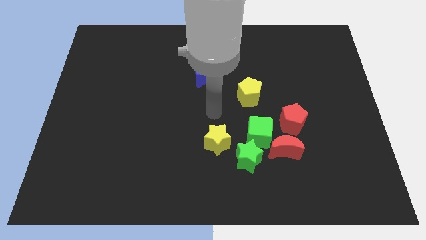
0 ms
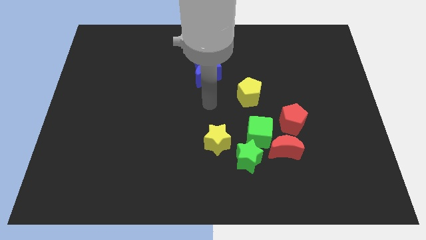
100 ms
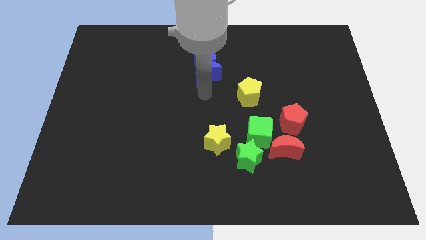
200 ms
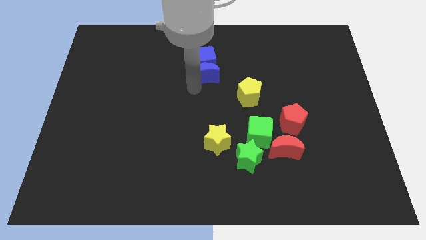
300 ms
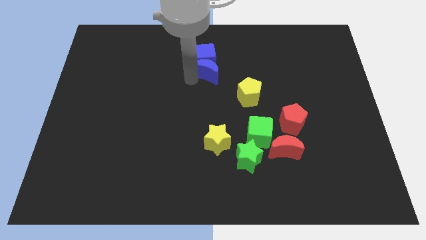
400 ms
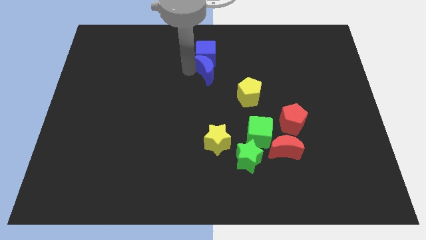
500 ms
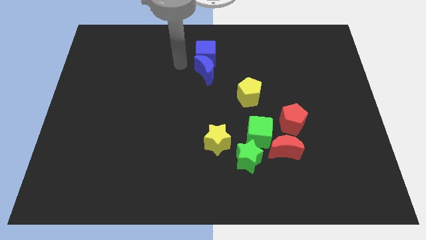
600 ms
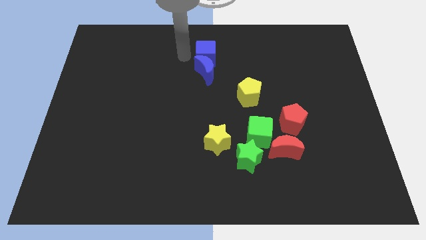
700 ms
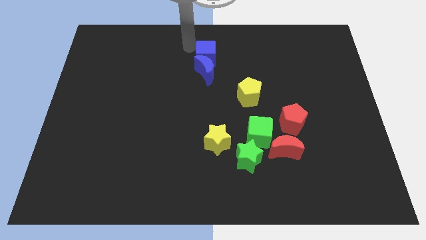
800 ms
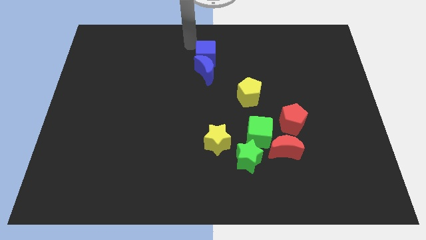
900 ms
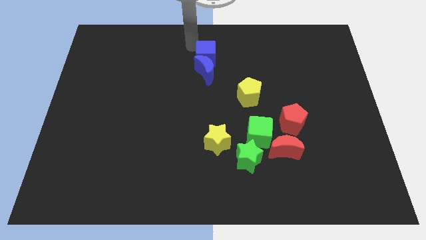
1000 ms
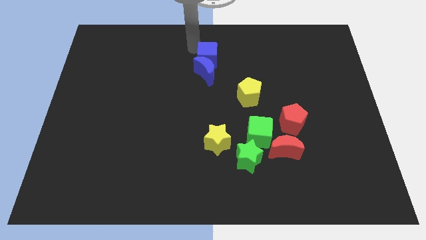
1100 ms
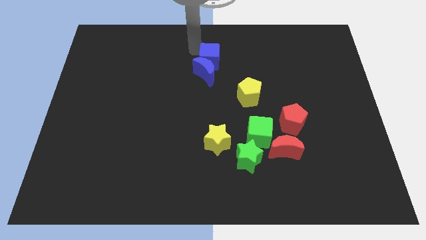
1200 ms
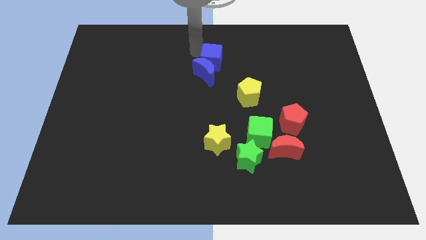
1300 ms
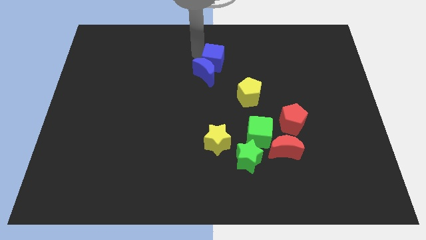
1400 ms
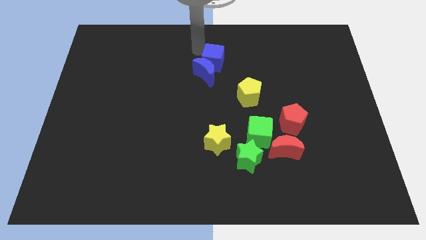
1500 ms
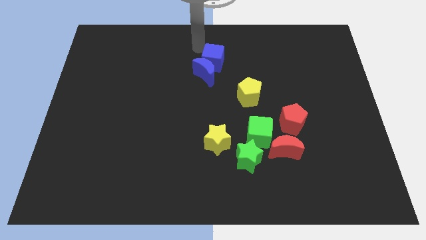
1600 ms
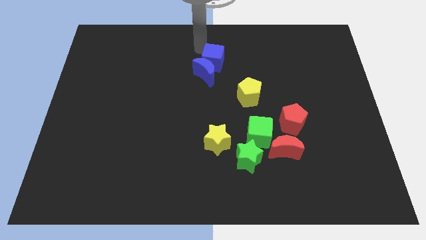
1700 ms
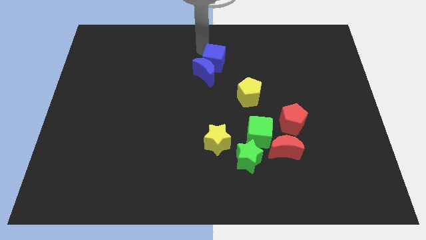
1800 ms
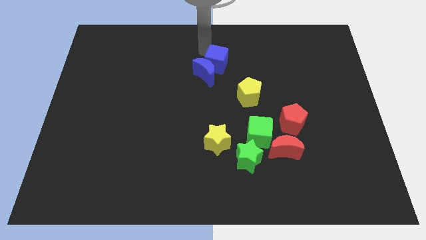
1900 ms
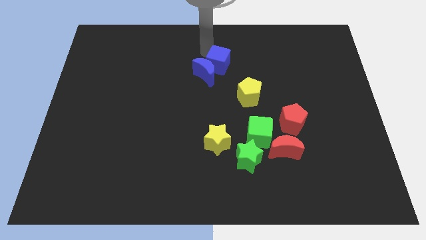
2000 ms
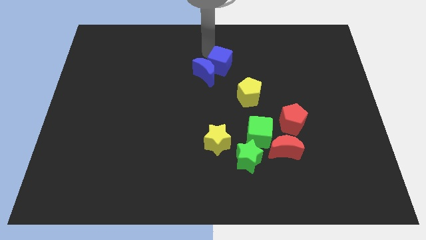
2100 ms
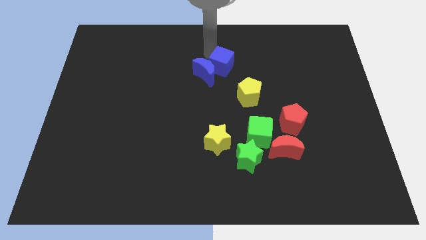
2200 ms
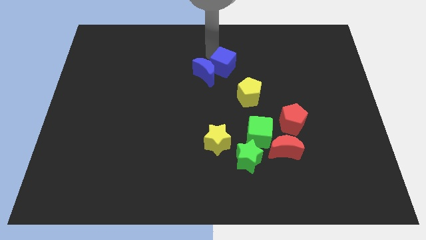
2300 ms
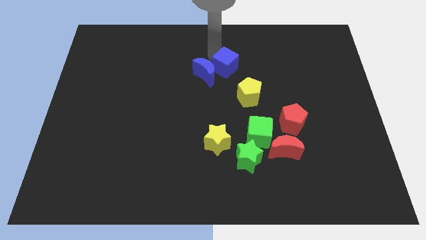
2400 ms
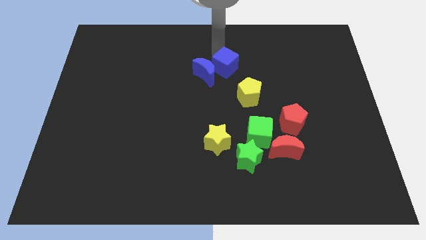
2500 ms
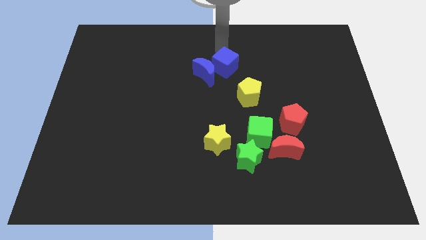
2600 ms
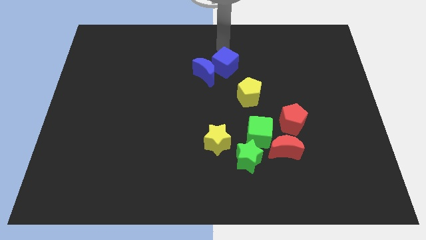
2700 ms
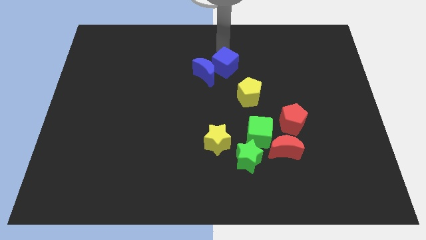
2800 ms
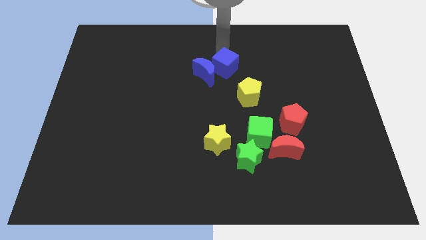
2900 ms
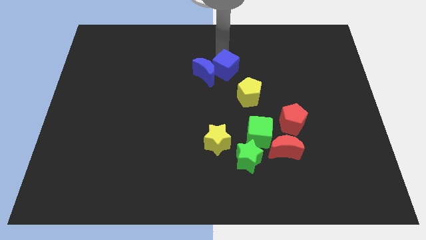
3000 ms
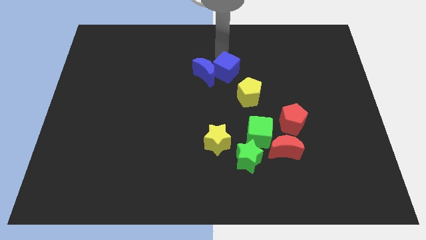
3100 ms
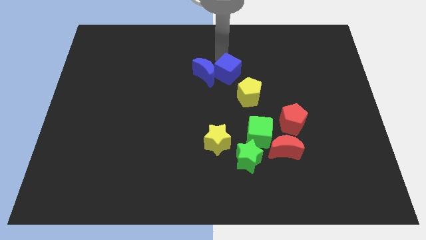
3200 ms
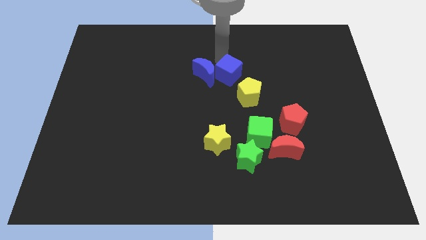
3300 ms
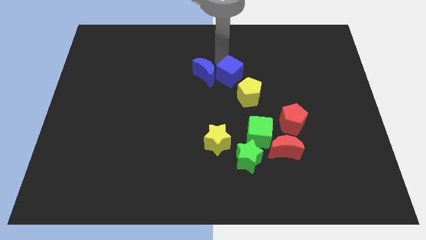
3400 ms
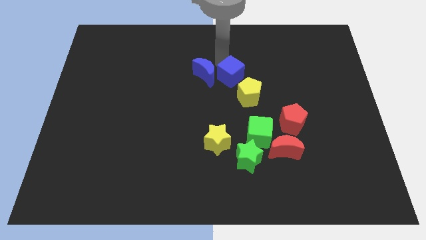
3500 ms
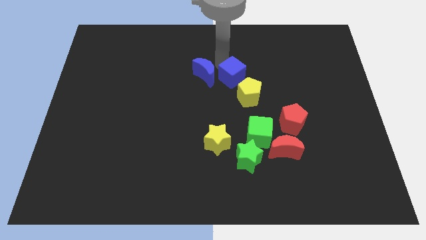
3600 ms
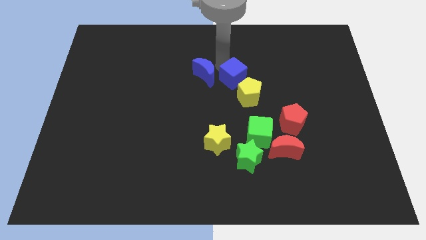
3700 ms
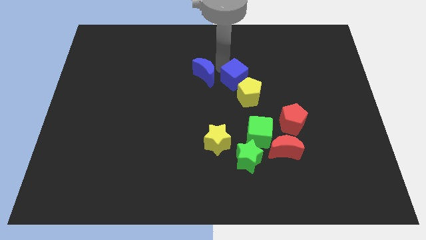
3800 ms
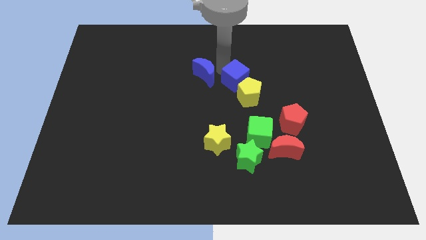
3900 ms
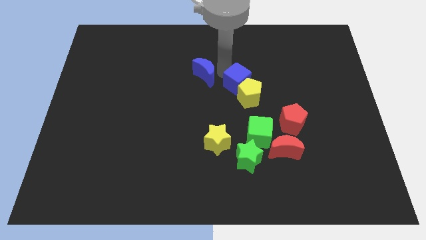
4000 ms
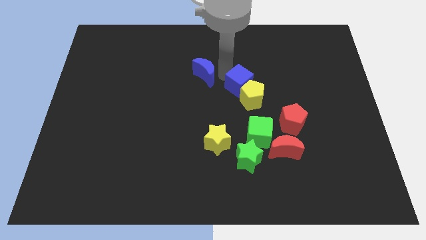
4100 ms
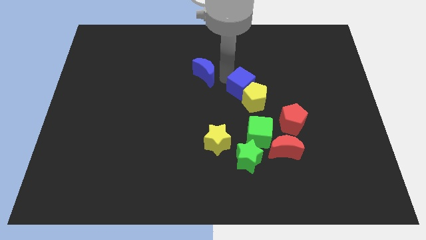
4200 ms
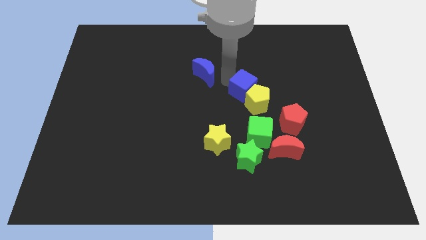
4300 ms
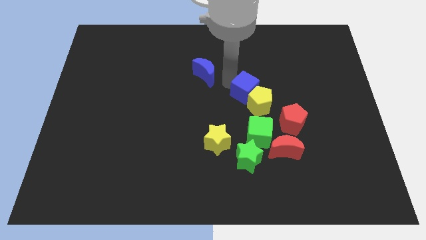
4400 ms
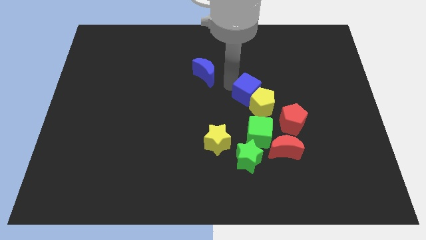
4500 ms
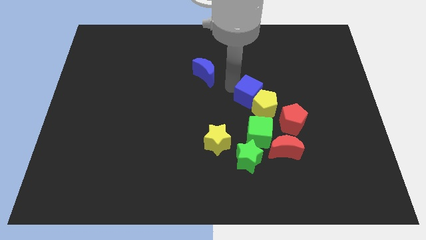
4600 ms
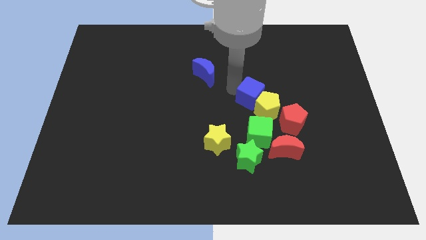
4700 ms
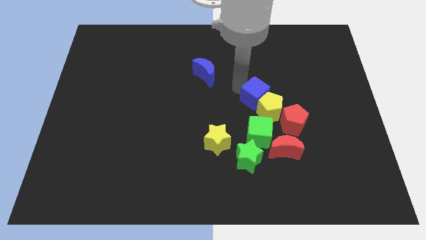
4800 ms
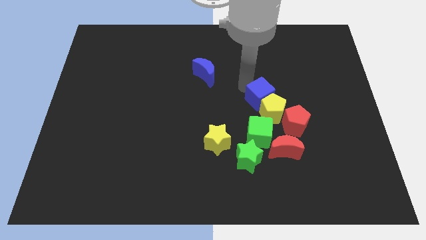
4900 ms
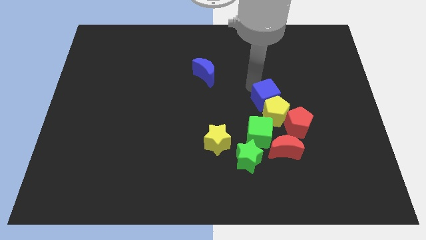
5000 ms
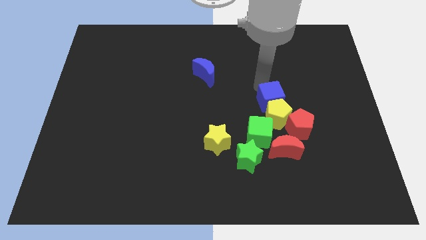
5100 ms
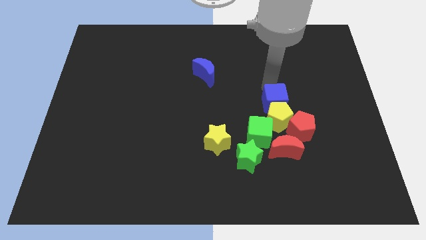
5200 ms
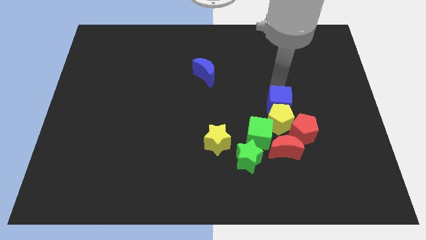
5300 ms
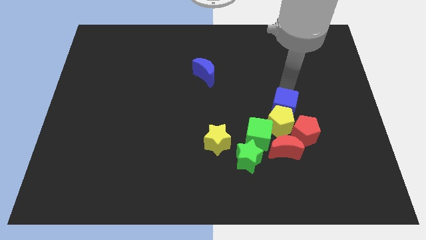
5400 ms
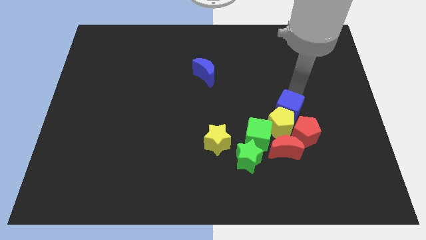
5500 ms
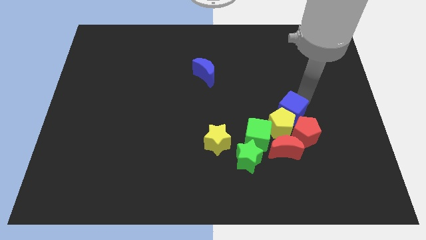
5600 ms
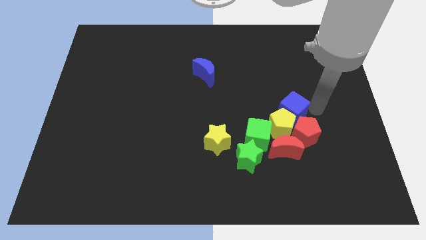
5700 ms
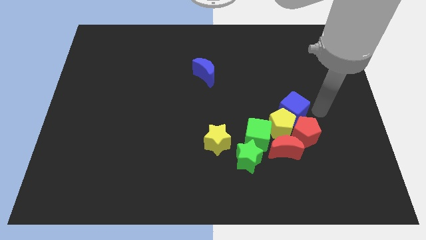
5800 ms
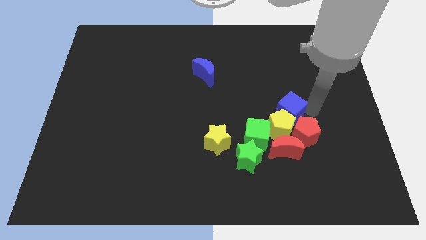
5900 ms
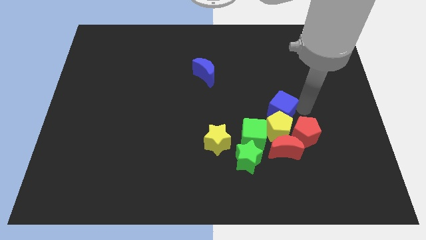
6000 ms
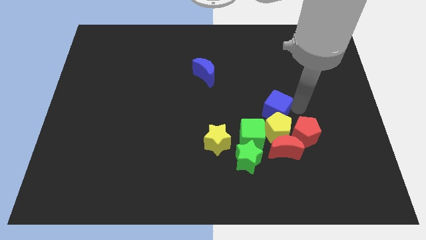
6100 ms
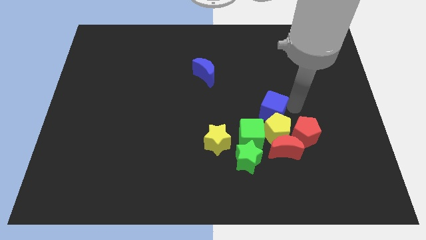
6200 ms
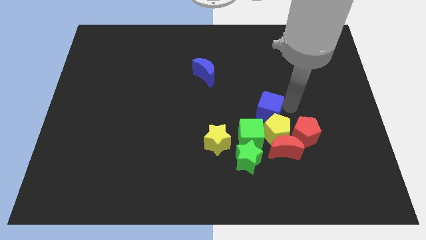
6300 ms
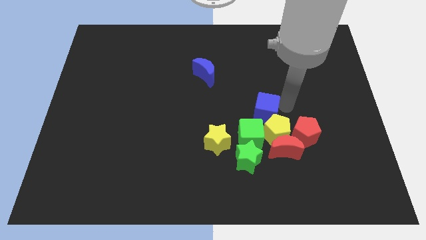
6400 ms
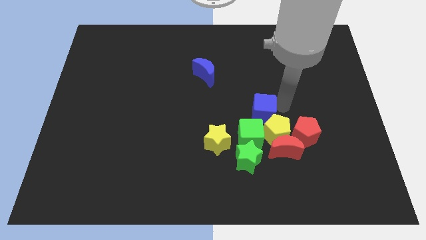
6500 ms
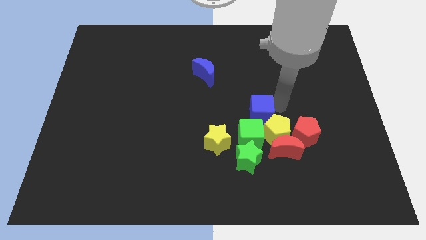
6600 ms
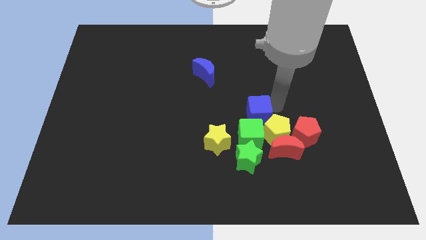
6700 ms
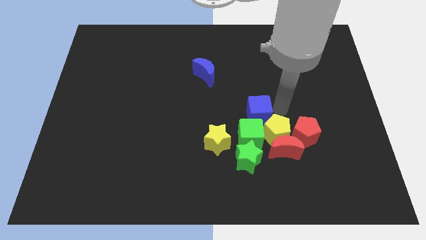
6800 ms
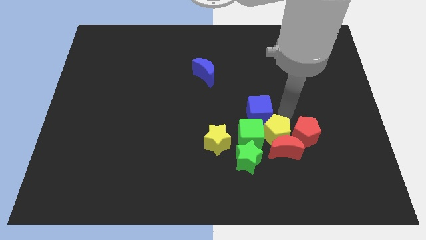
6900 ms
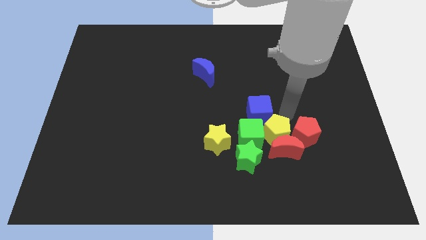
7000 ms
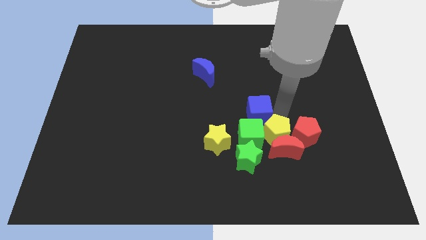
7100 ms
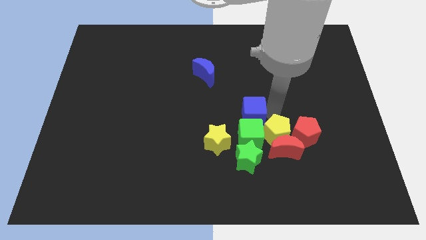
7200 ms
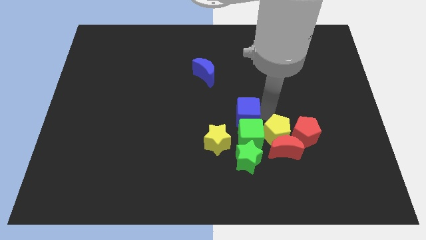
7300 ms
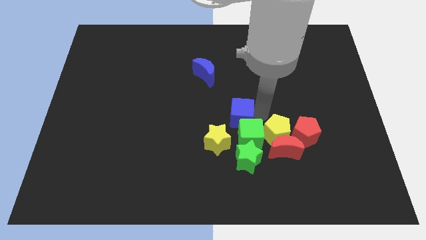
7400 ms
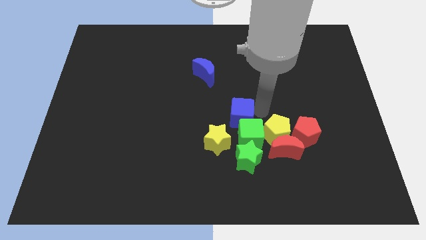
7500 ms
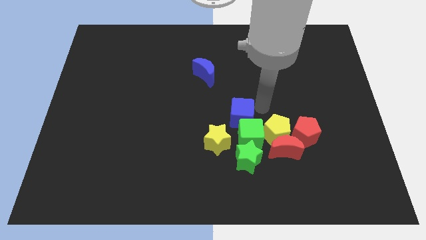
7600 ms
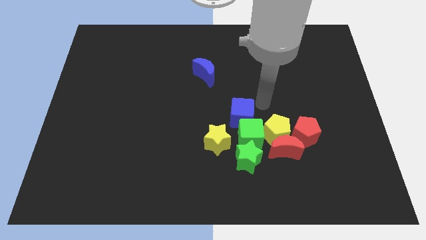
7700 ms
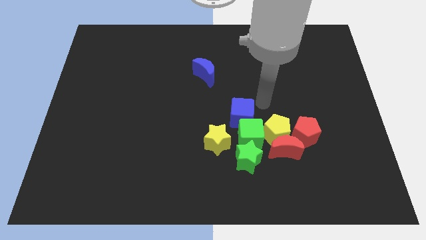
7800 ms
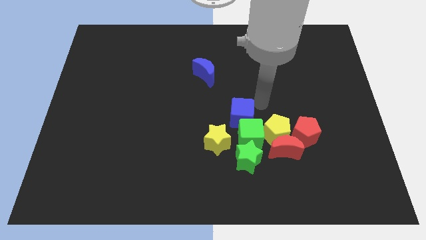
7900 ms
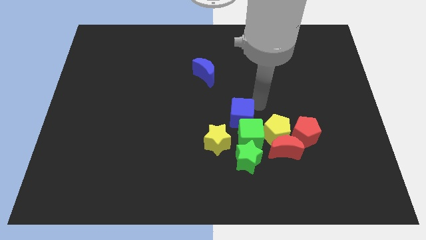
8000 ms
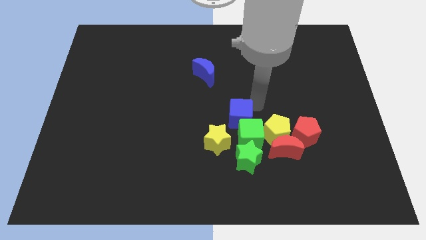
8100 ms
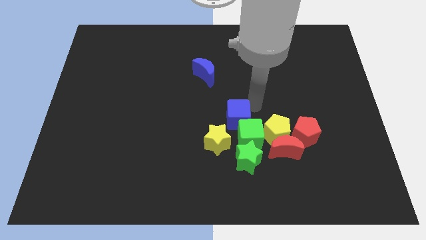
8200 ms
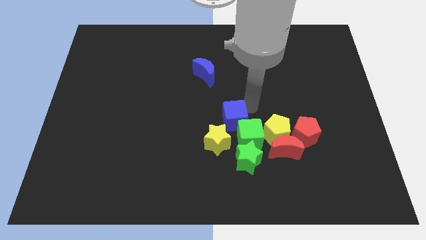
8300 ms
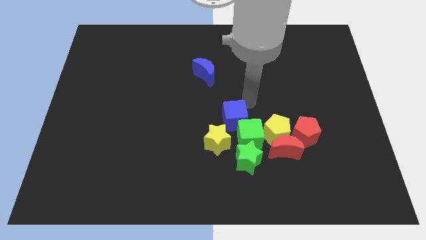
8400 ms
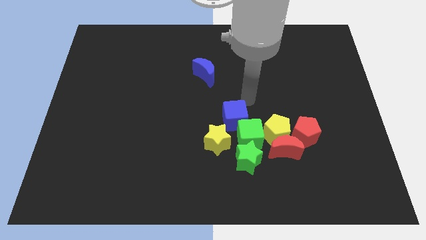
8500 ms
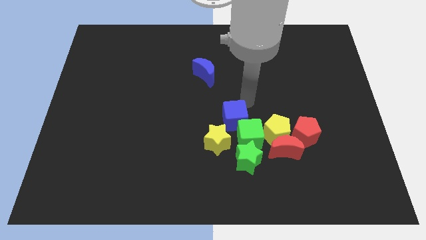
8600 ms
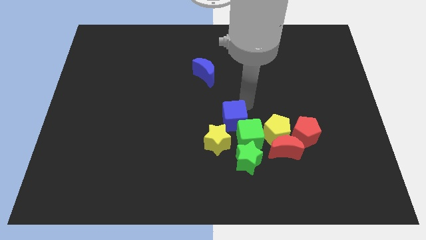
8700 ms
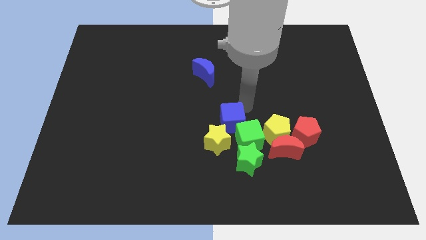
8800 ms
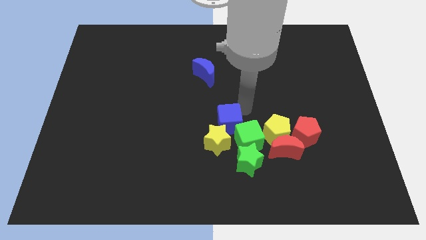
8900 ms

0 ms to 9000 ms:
put the blue cube to the yellow star
